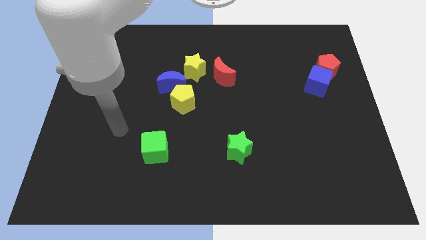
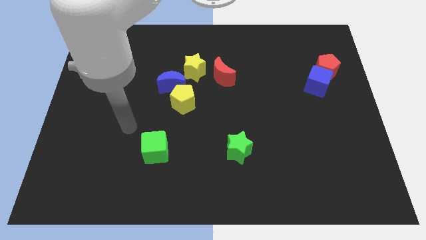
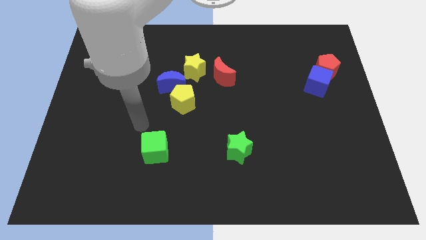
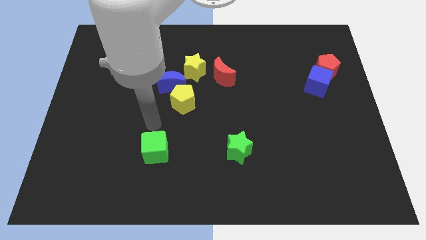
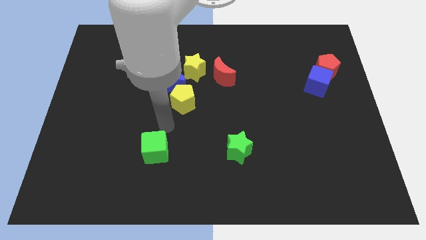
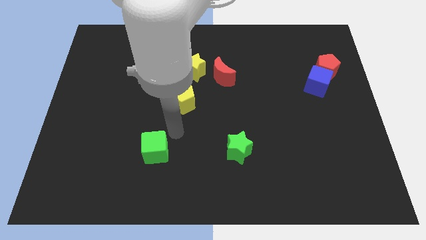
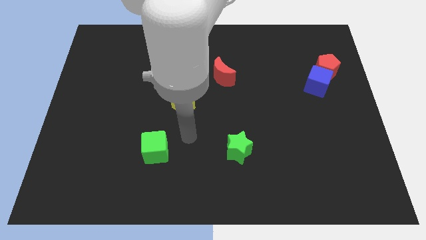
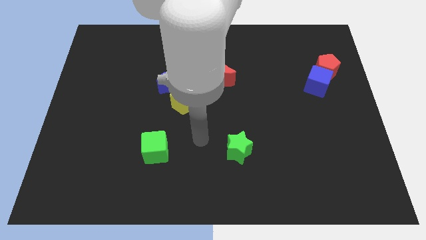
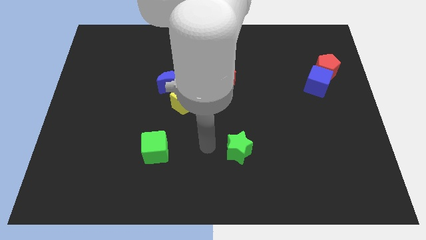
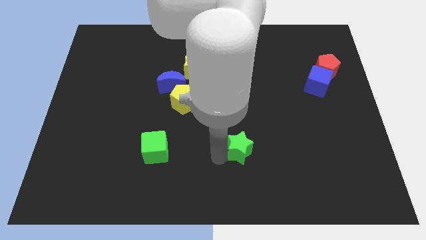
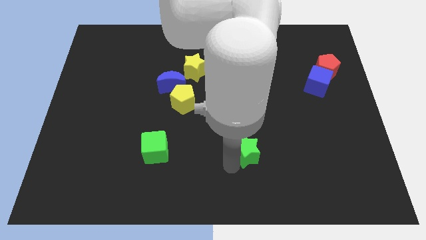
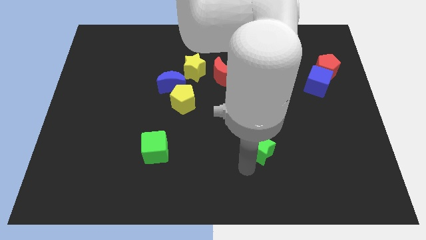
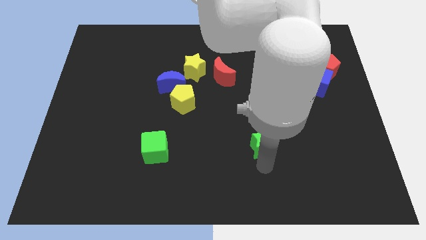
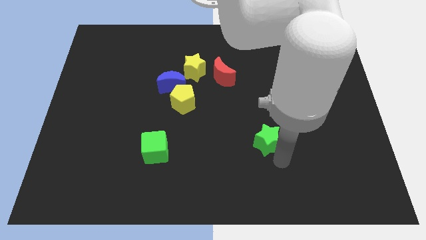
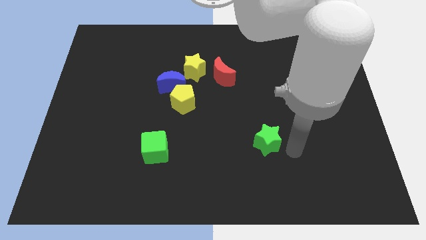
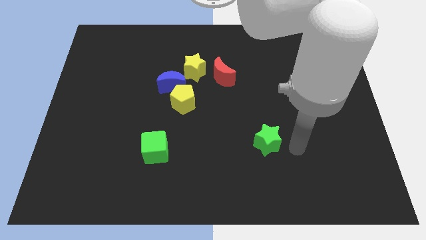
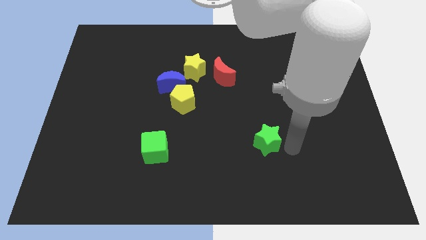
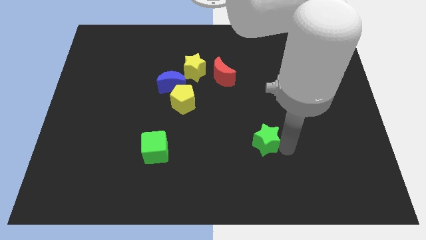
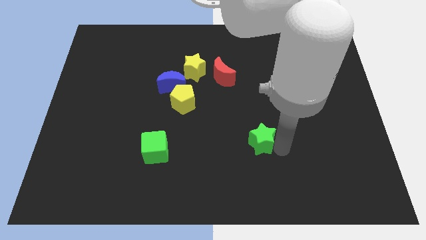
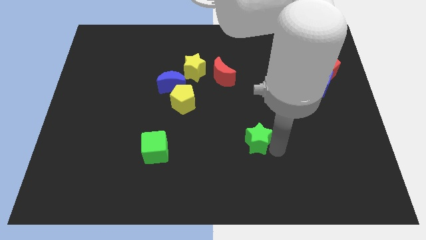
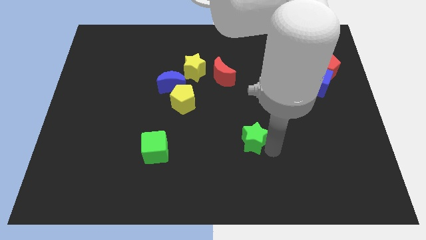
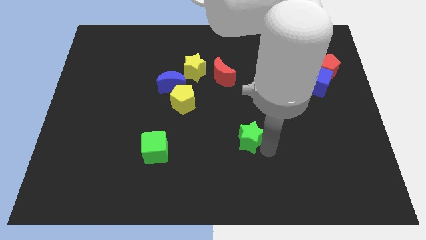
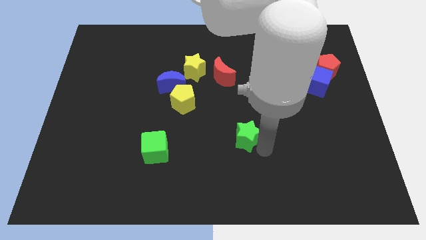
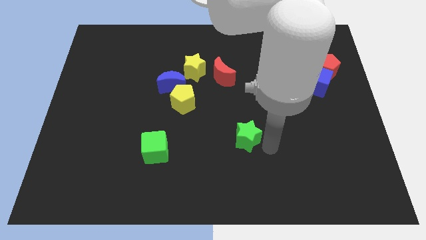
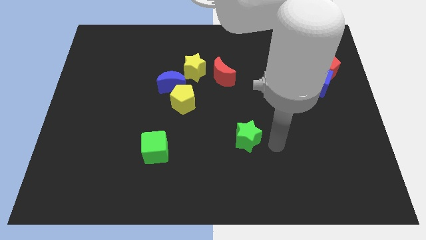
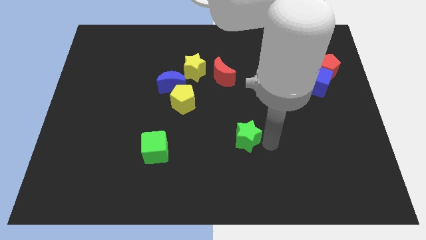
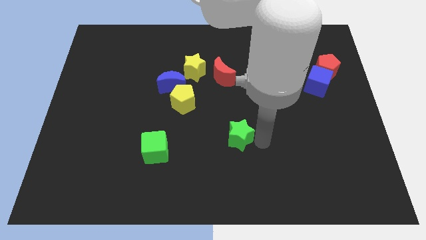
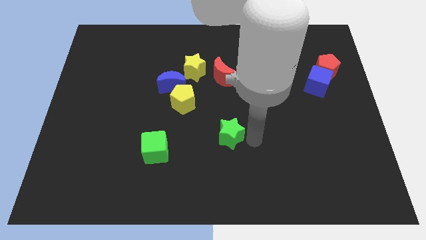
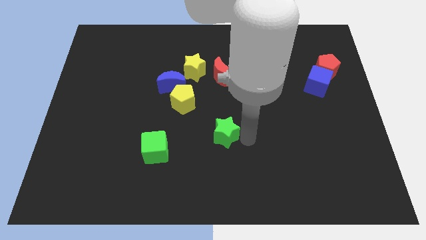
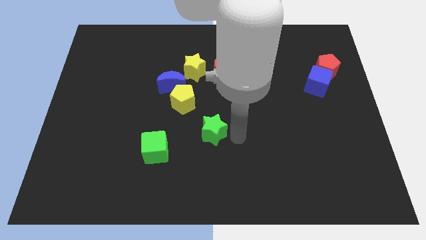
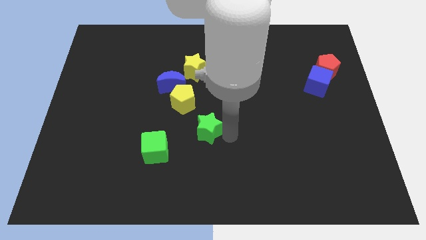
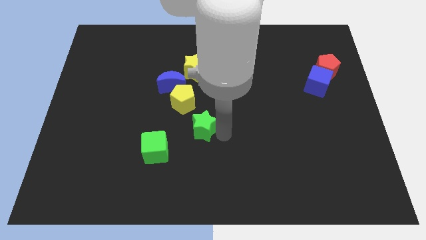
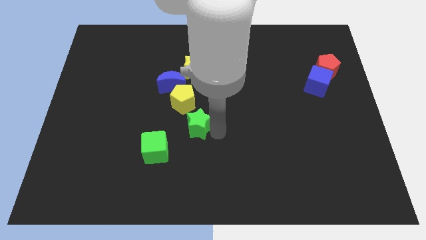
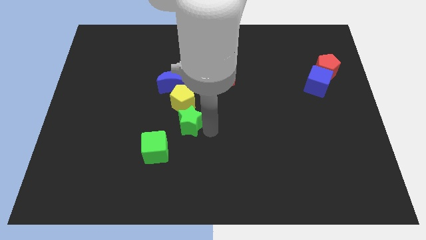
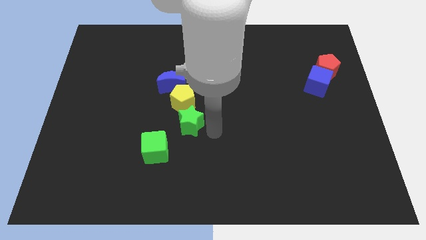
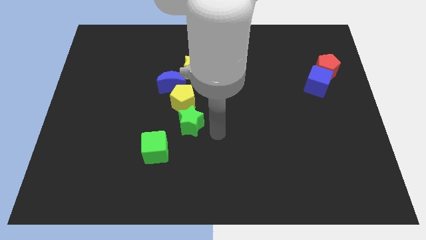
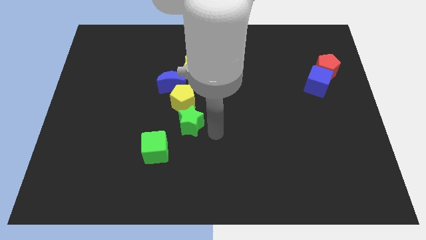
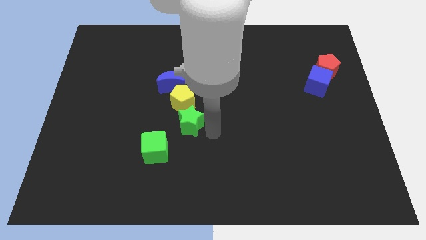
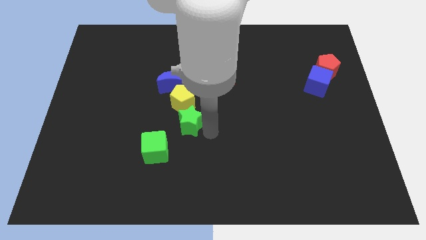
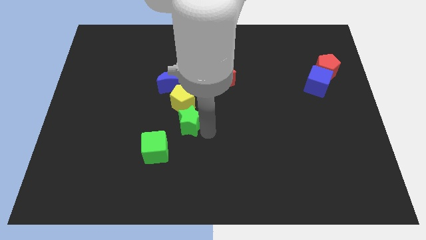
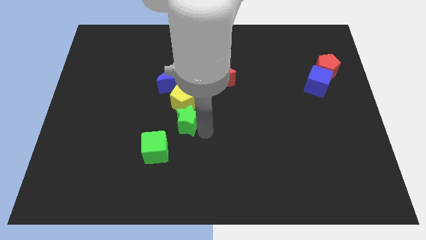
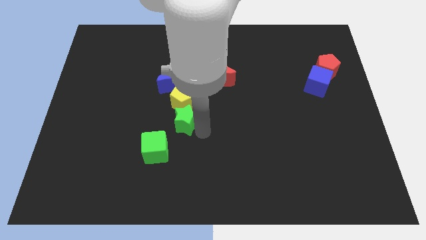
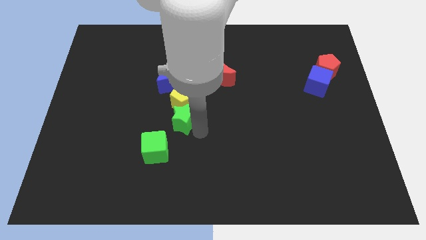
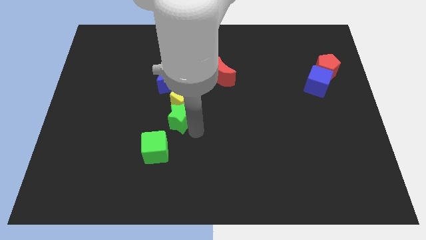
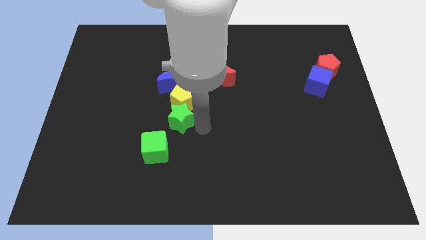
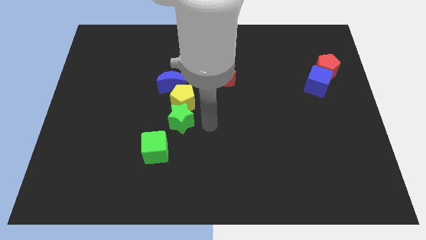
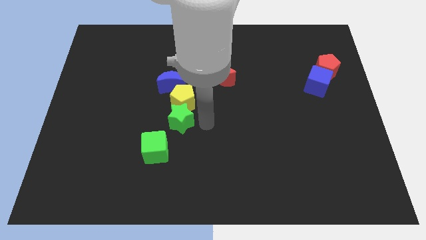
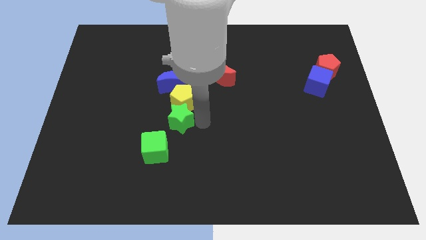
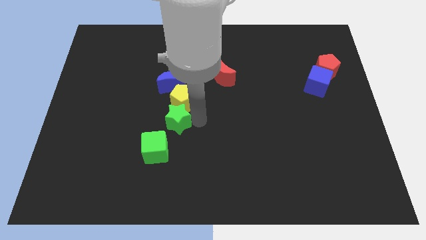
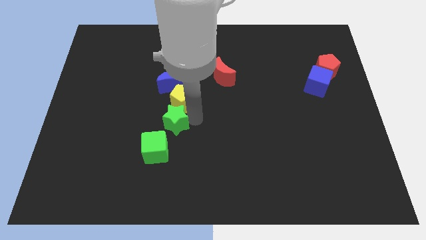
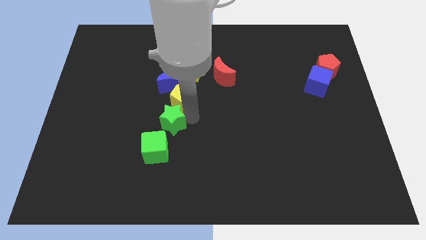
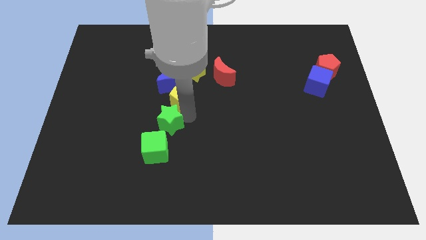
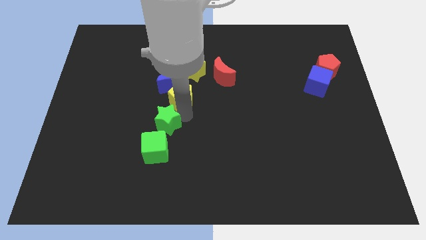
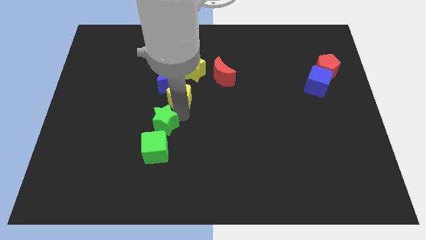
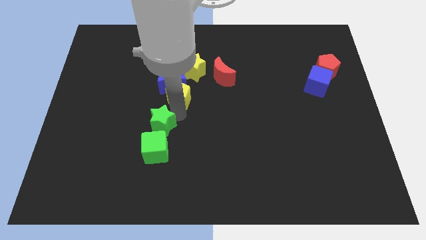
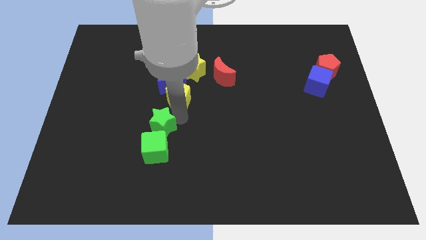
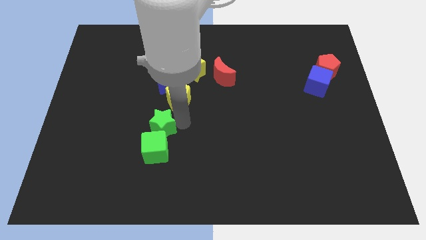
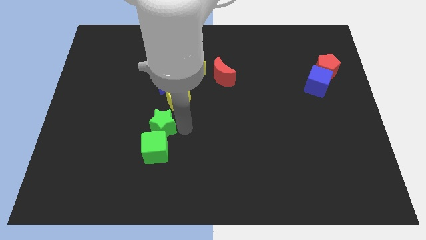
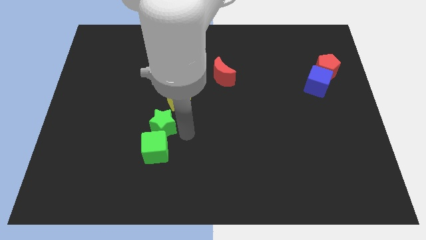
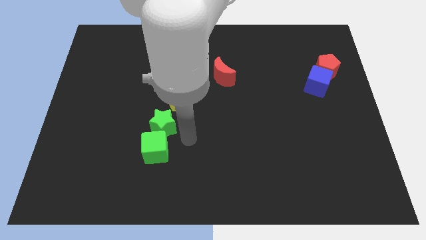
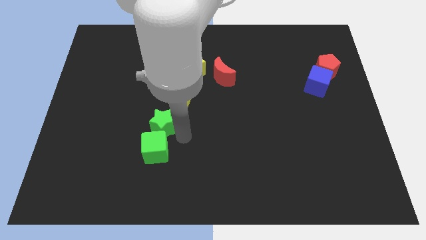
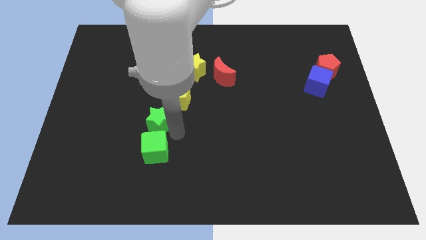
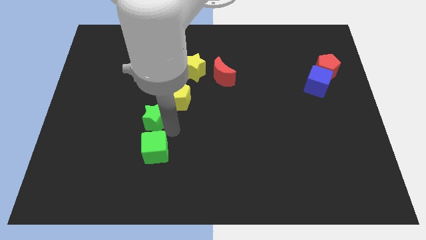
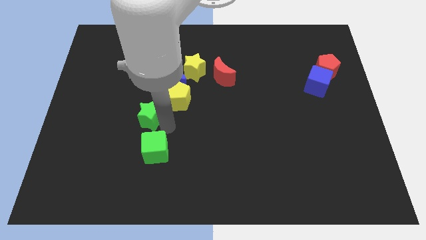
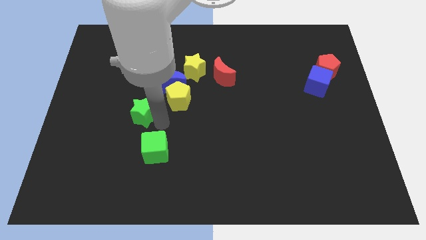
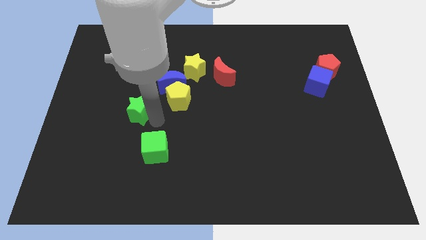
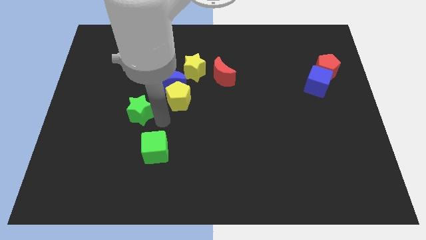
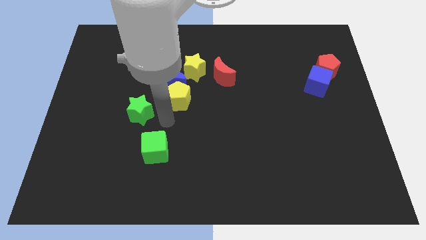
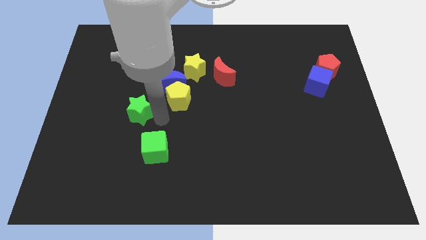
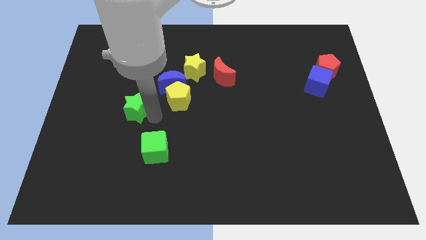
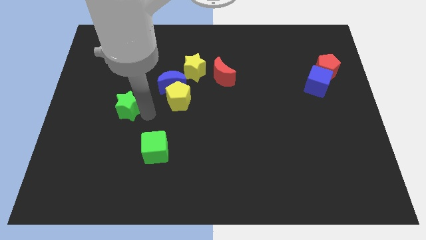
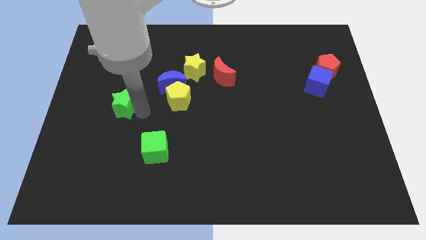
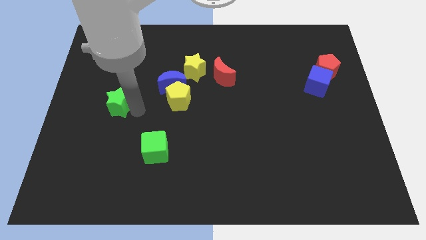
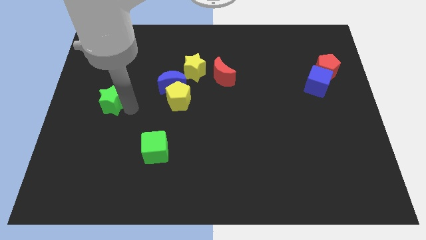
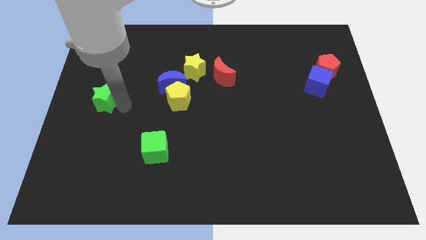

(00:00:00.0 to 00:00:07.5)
put the green star to the left side of the board

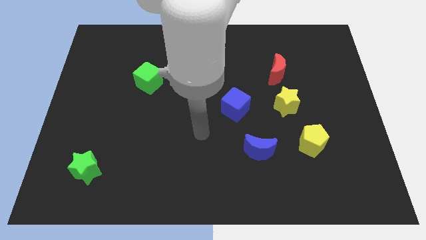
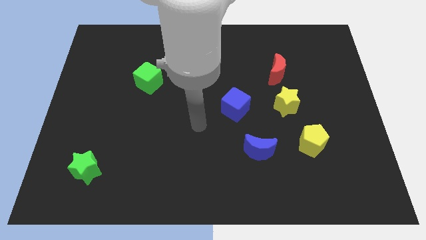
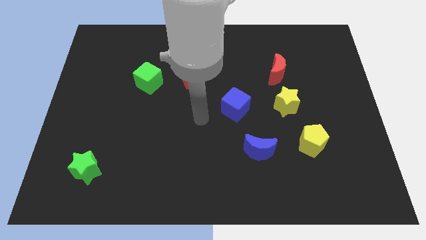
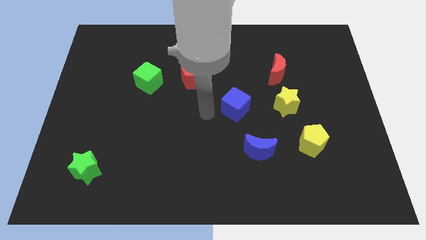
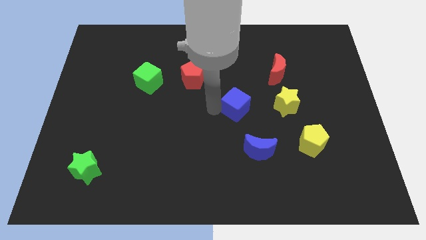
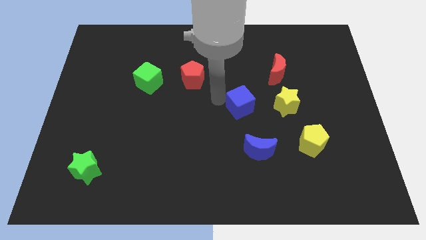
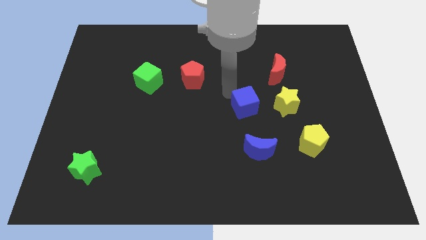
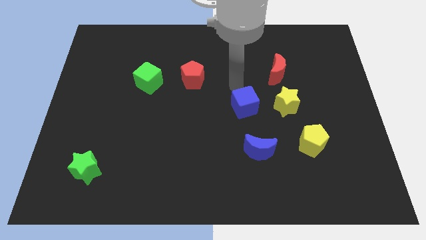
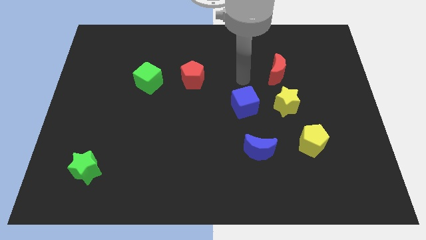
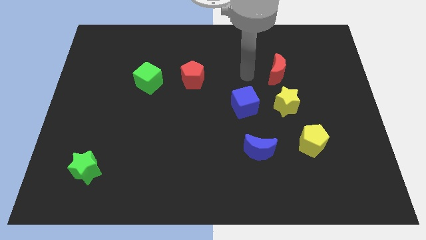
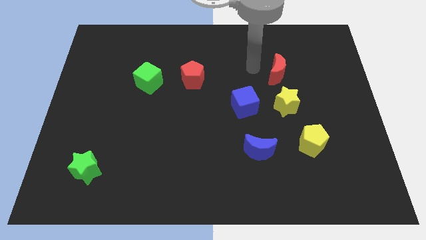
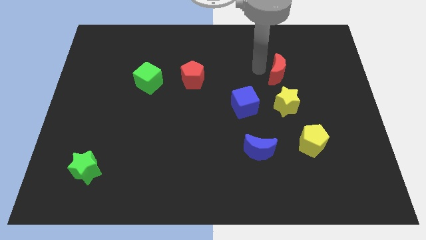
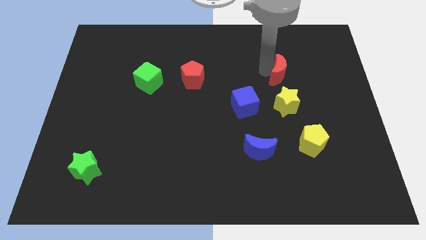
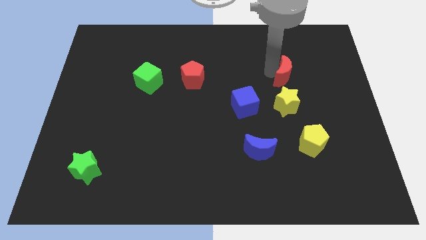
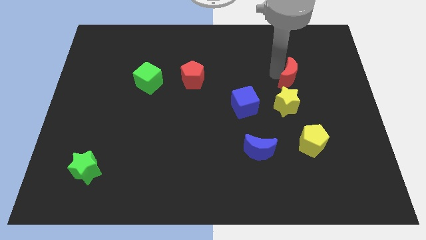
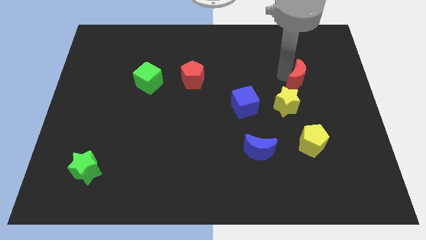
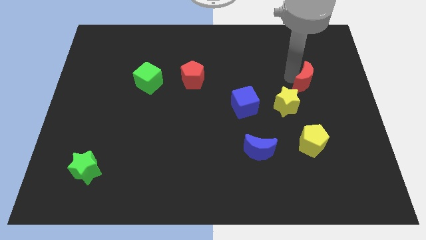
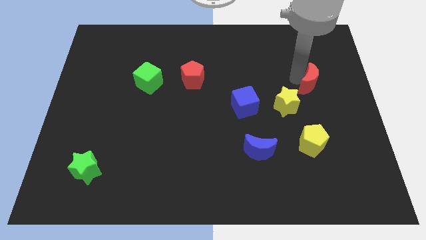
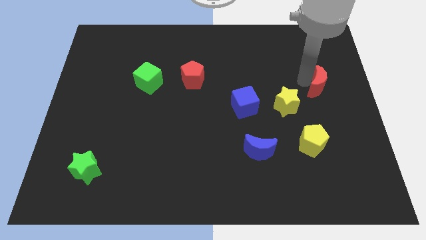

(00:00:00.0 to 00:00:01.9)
put the red moon to the center right
